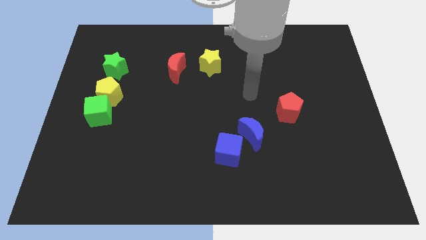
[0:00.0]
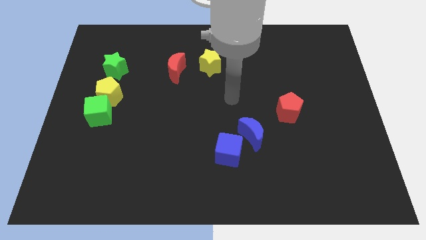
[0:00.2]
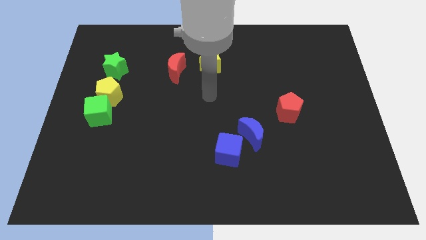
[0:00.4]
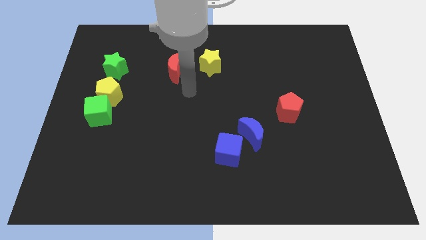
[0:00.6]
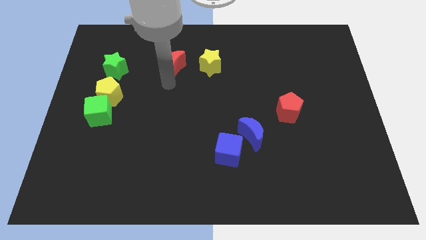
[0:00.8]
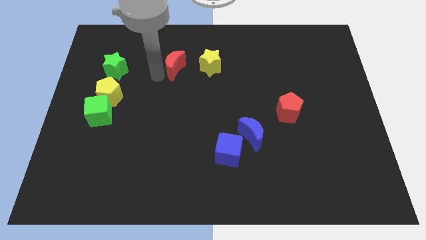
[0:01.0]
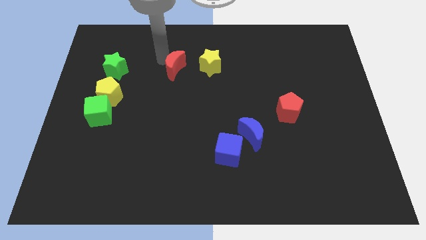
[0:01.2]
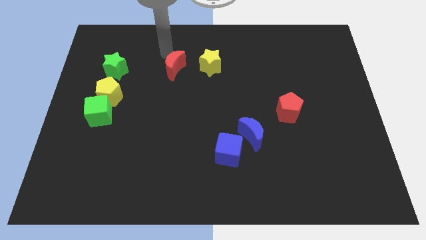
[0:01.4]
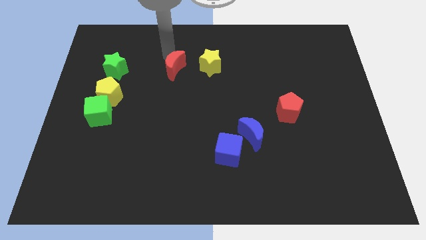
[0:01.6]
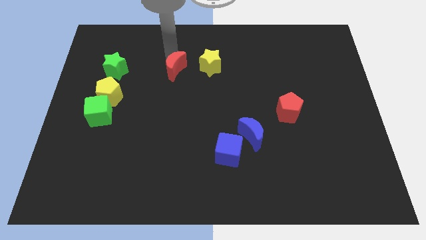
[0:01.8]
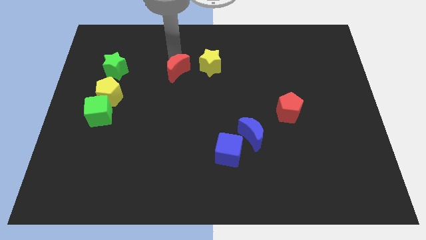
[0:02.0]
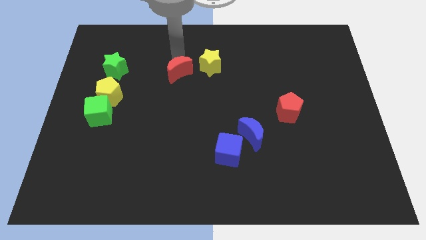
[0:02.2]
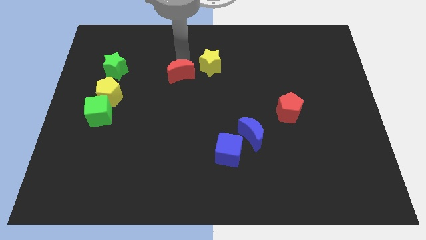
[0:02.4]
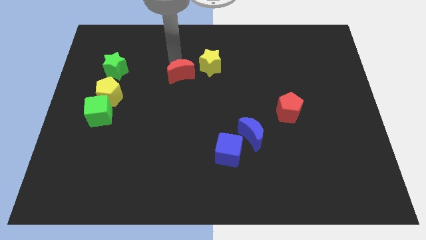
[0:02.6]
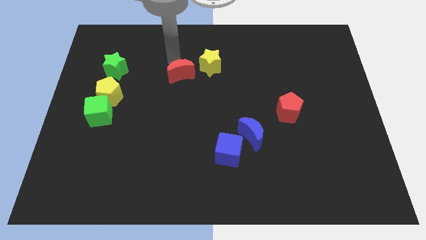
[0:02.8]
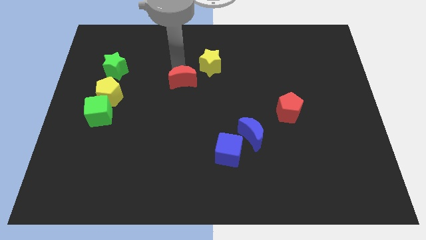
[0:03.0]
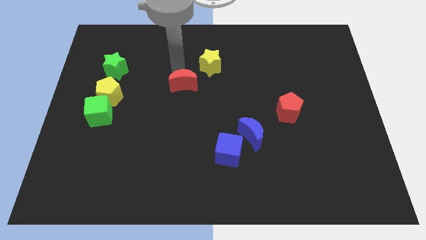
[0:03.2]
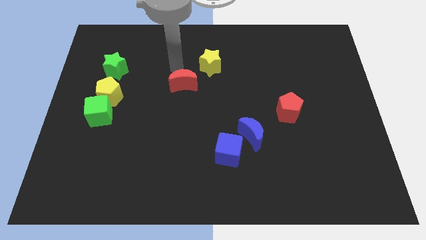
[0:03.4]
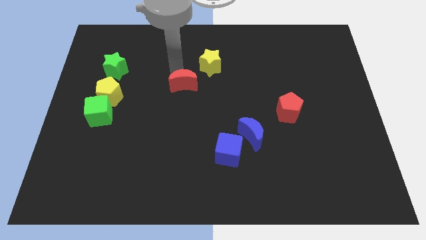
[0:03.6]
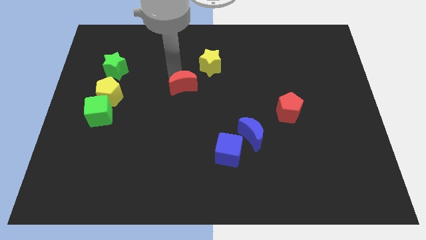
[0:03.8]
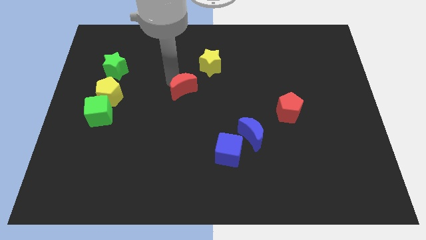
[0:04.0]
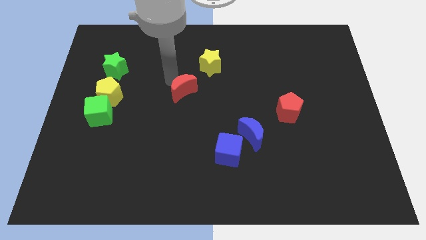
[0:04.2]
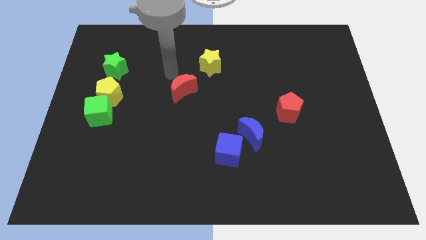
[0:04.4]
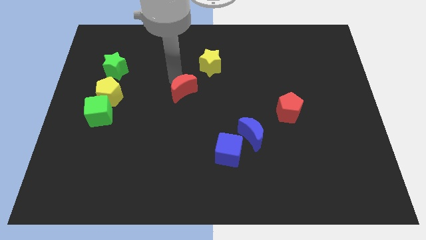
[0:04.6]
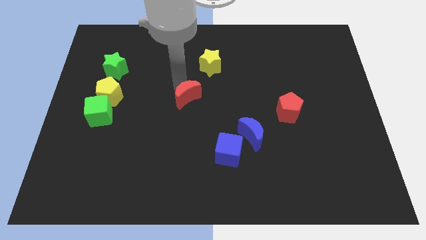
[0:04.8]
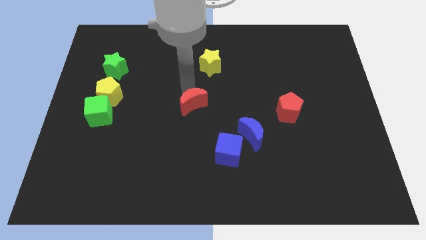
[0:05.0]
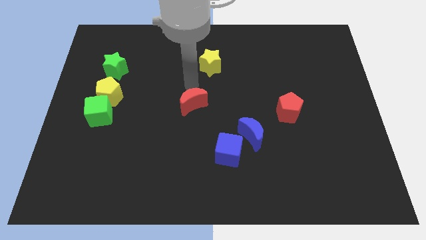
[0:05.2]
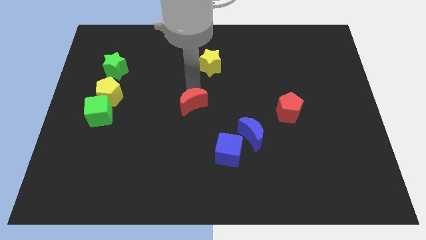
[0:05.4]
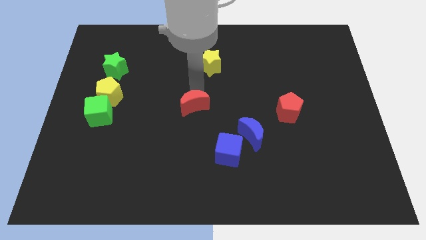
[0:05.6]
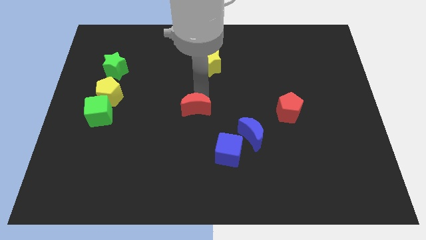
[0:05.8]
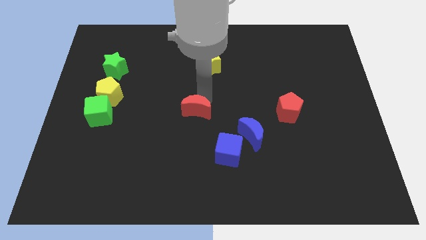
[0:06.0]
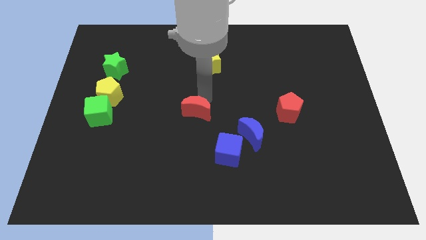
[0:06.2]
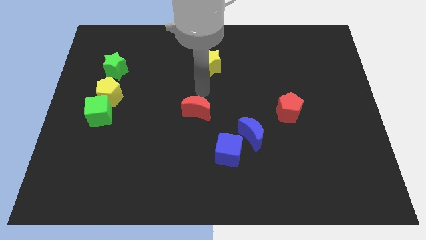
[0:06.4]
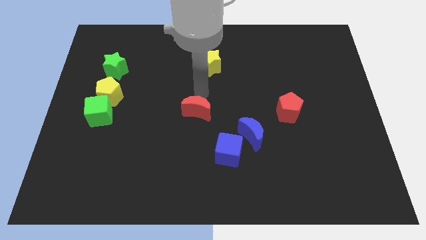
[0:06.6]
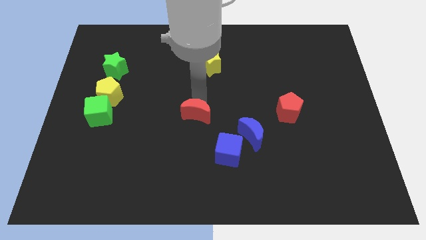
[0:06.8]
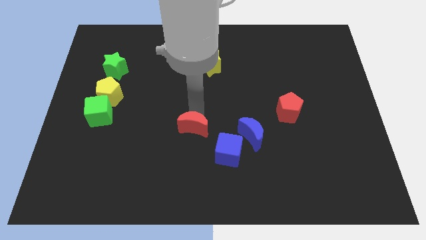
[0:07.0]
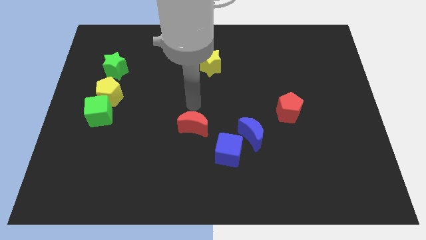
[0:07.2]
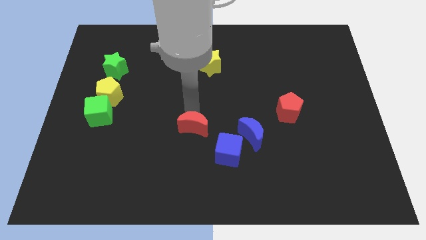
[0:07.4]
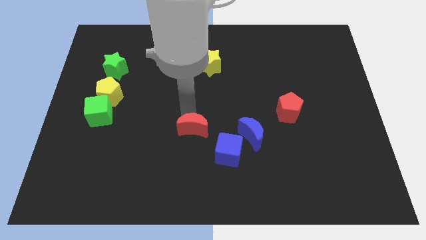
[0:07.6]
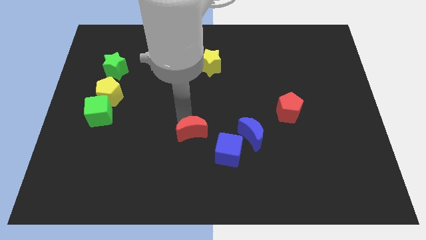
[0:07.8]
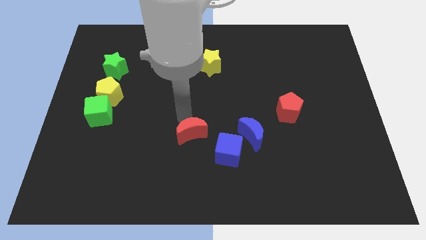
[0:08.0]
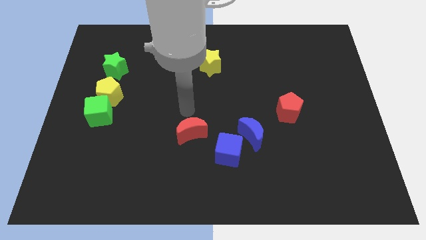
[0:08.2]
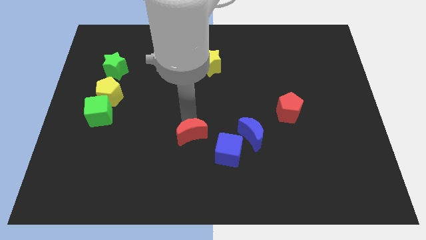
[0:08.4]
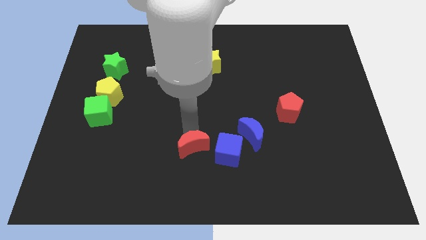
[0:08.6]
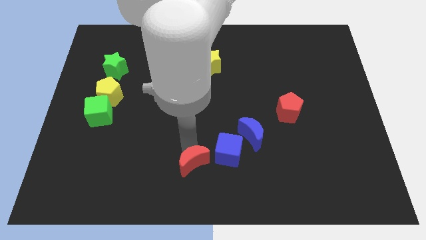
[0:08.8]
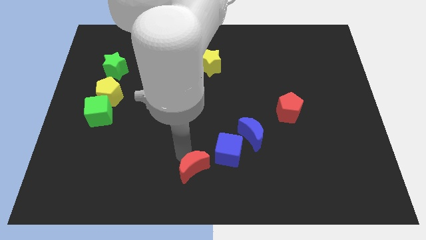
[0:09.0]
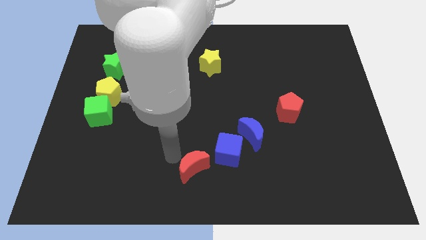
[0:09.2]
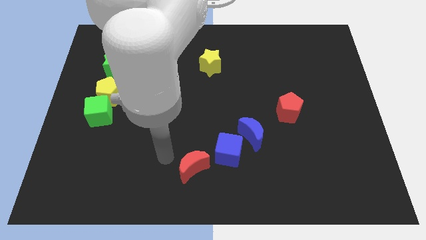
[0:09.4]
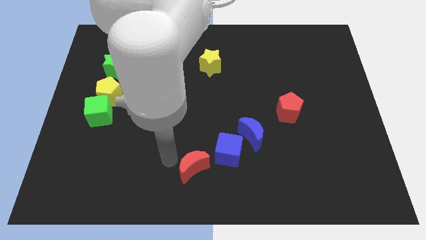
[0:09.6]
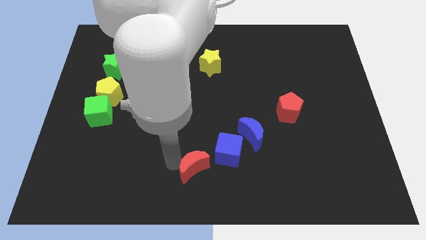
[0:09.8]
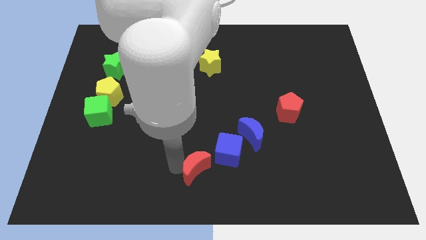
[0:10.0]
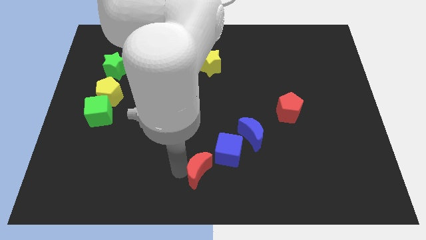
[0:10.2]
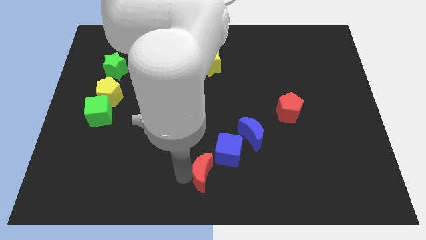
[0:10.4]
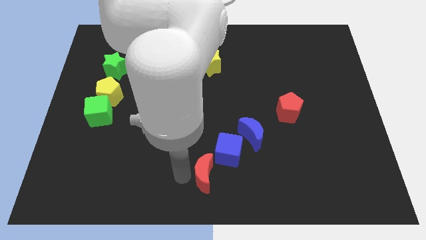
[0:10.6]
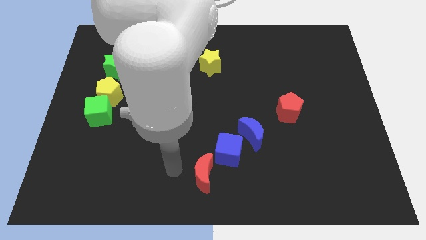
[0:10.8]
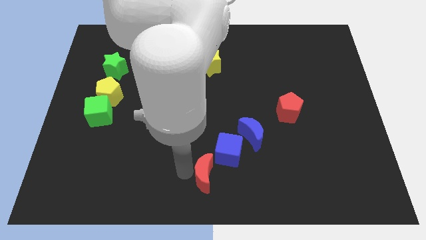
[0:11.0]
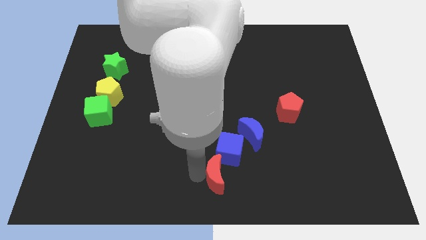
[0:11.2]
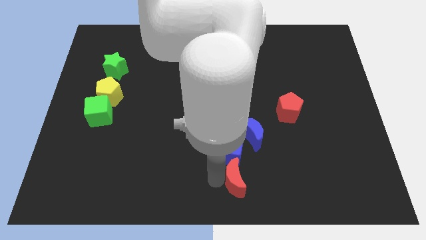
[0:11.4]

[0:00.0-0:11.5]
put the red moon below the blue moon

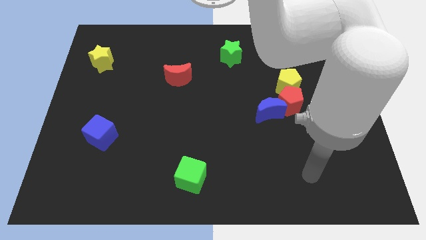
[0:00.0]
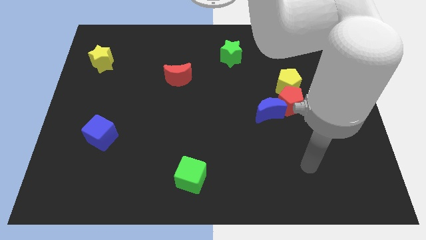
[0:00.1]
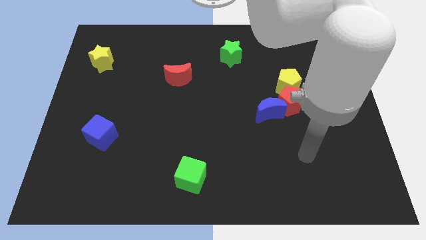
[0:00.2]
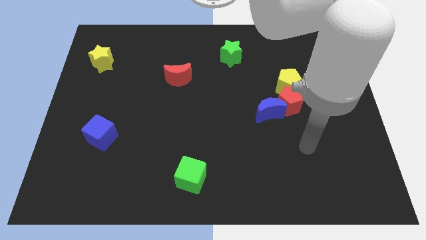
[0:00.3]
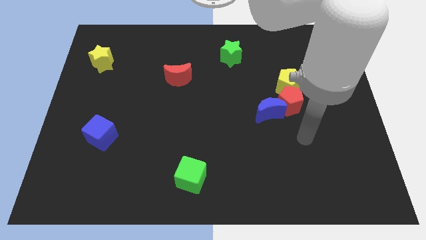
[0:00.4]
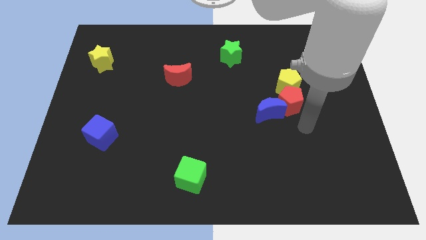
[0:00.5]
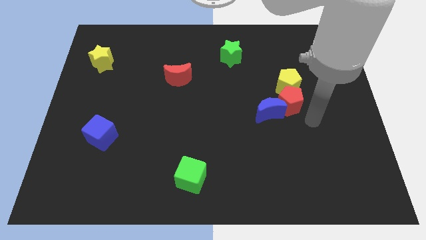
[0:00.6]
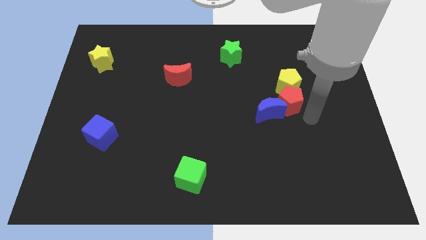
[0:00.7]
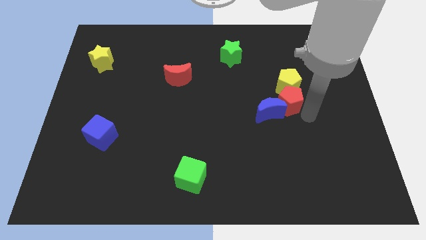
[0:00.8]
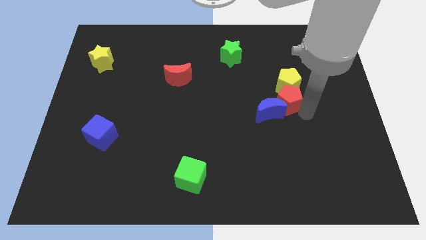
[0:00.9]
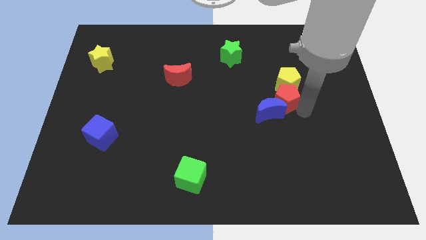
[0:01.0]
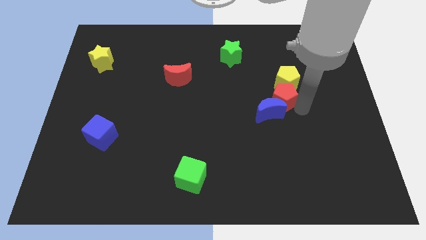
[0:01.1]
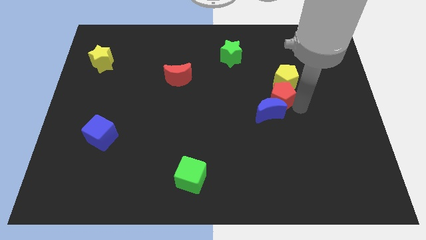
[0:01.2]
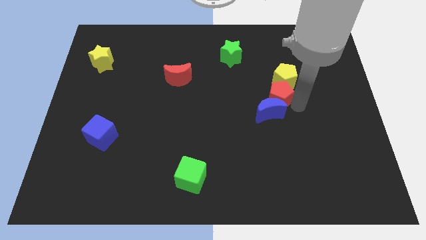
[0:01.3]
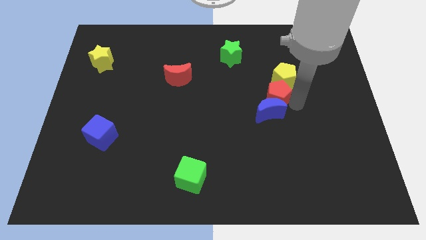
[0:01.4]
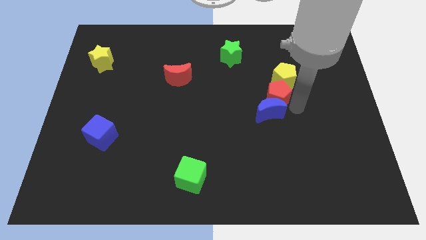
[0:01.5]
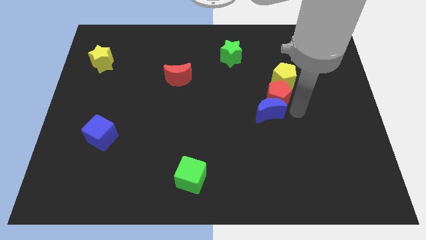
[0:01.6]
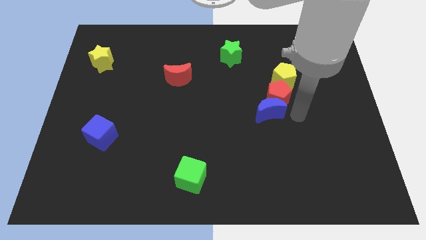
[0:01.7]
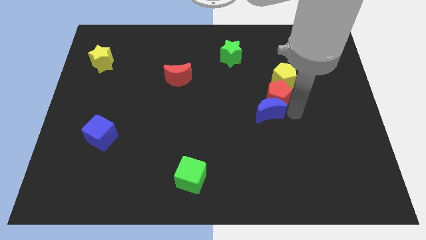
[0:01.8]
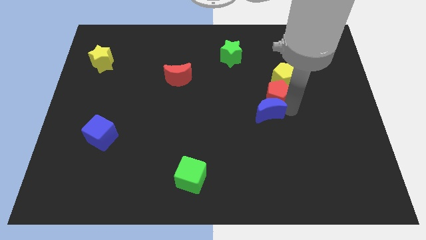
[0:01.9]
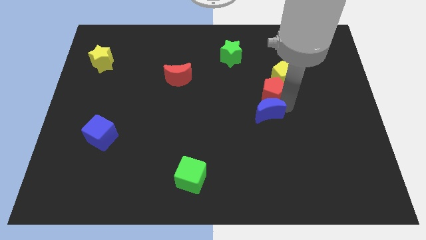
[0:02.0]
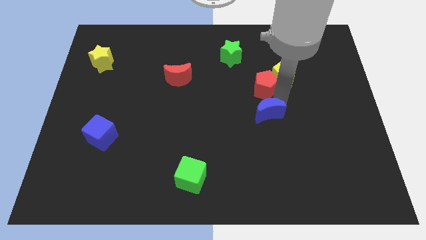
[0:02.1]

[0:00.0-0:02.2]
move the red pentagon left of the yellow pentagon
